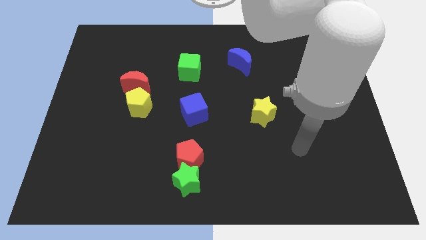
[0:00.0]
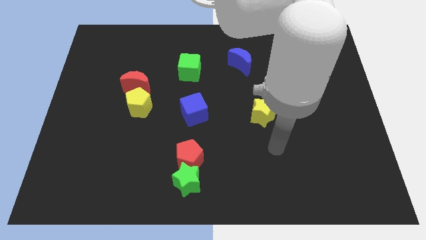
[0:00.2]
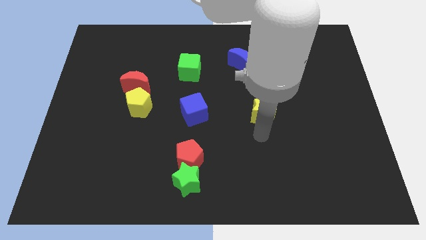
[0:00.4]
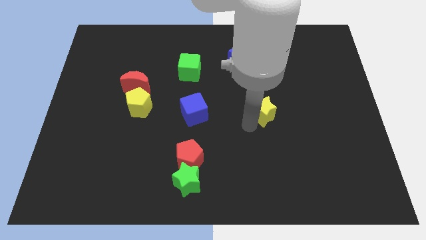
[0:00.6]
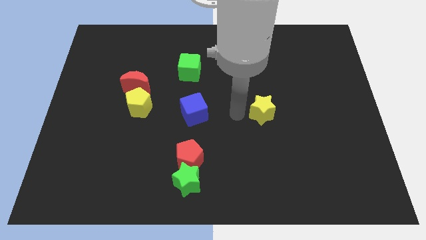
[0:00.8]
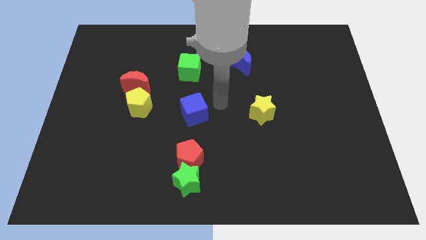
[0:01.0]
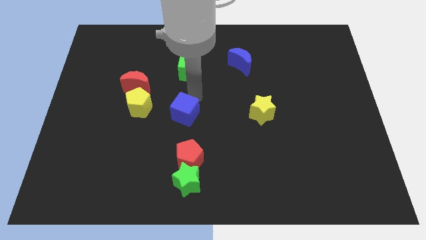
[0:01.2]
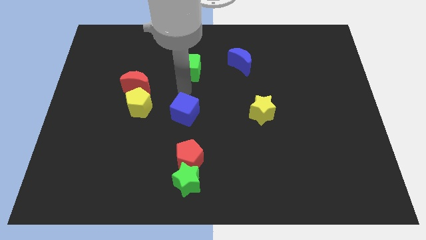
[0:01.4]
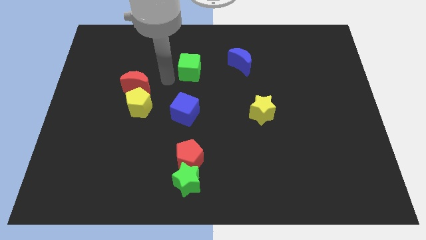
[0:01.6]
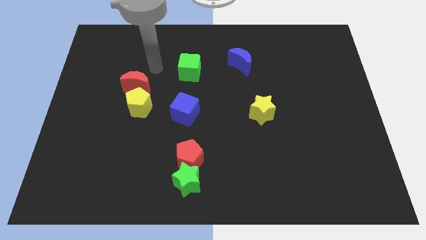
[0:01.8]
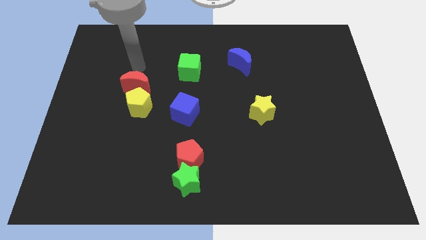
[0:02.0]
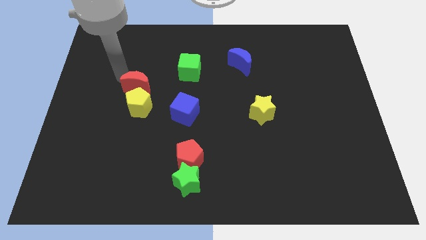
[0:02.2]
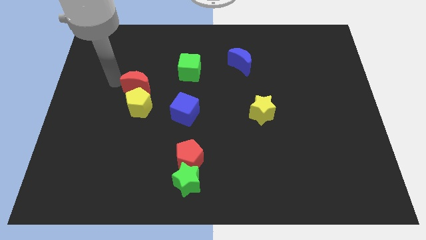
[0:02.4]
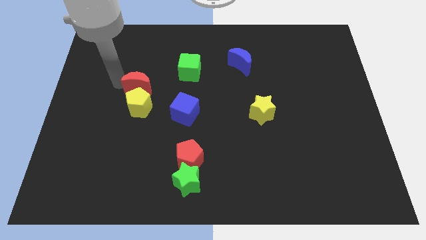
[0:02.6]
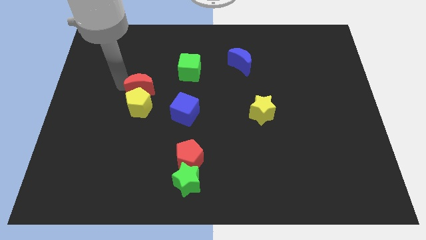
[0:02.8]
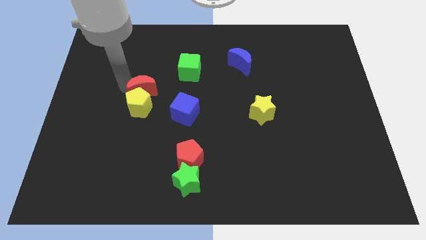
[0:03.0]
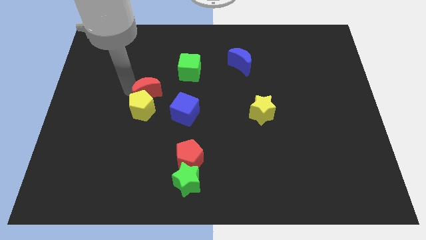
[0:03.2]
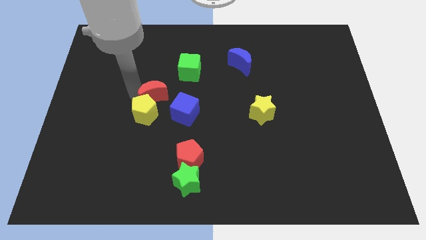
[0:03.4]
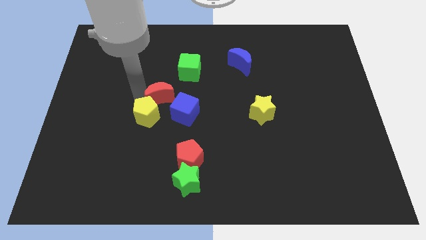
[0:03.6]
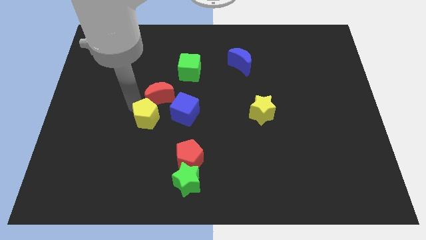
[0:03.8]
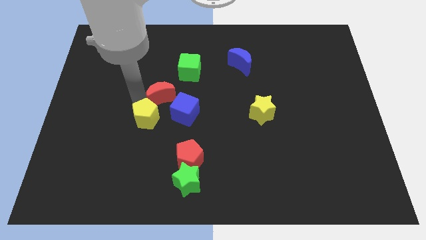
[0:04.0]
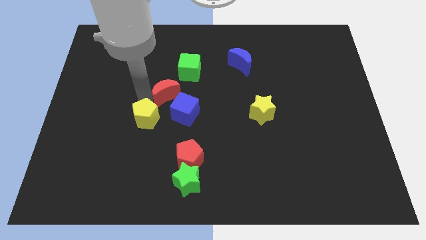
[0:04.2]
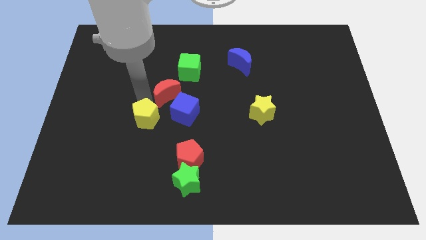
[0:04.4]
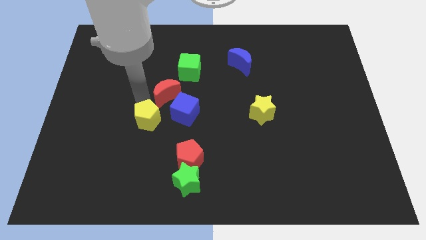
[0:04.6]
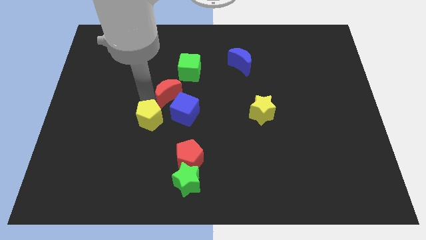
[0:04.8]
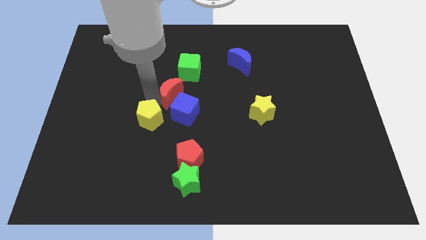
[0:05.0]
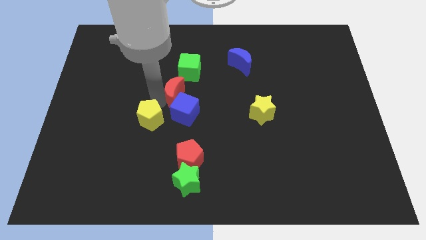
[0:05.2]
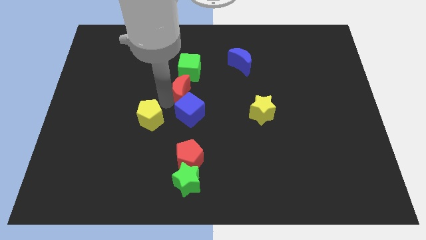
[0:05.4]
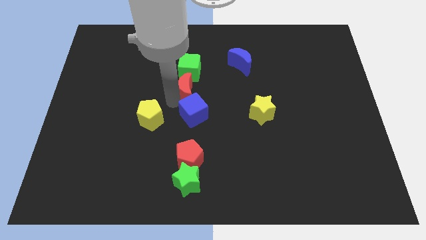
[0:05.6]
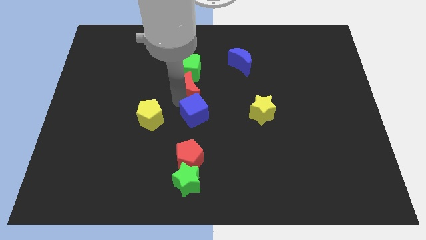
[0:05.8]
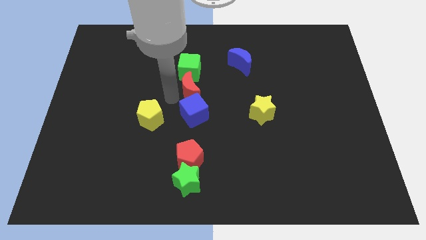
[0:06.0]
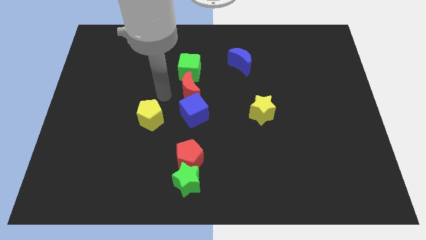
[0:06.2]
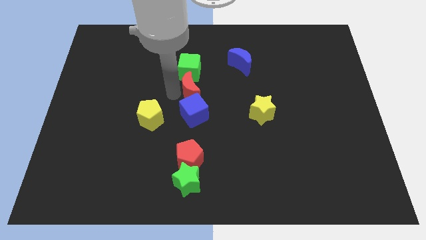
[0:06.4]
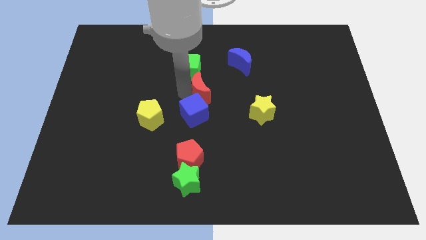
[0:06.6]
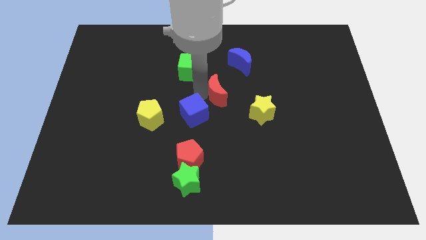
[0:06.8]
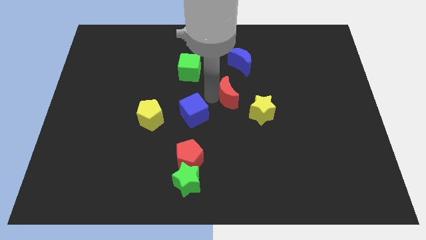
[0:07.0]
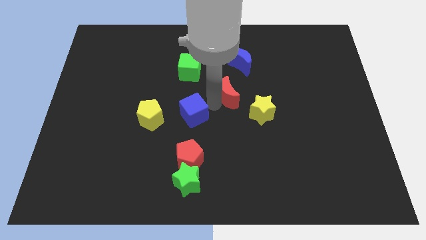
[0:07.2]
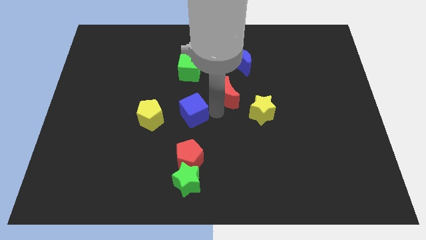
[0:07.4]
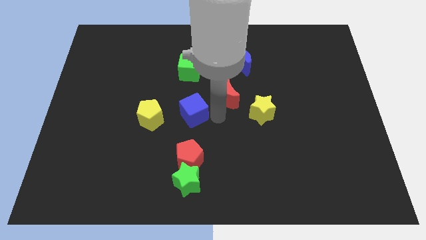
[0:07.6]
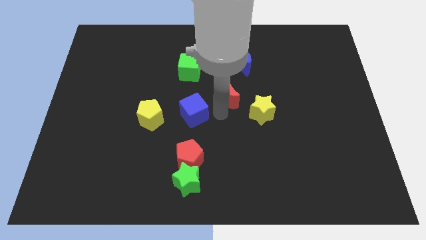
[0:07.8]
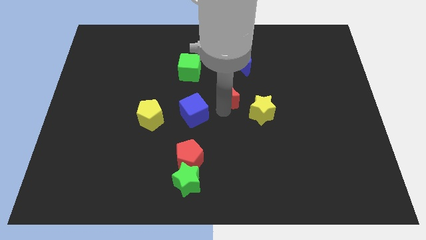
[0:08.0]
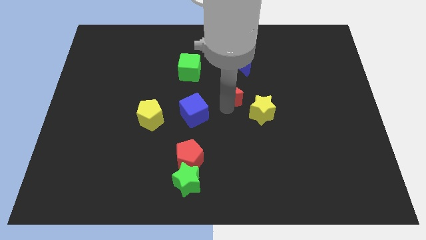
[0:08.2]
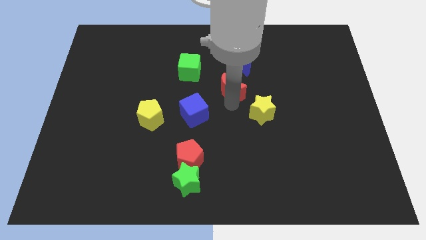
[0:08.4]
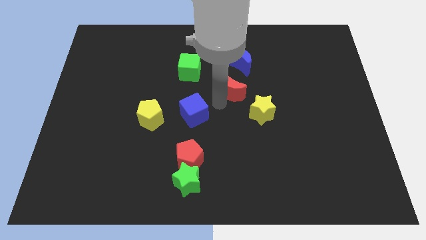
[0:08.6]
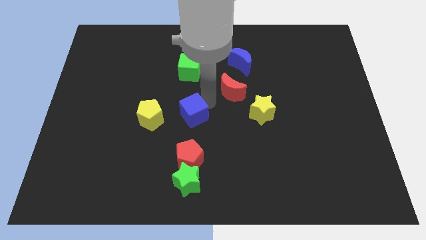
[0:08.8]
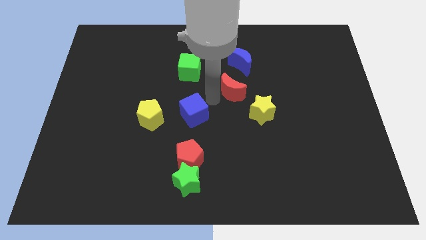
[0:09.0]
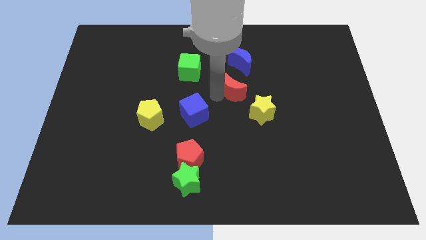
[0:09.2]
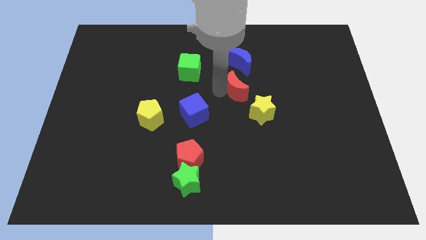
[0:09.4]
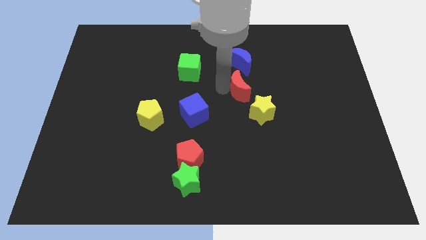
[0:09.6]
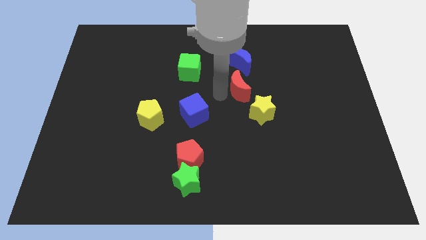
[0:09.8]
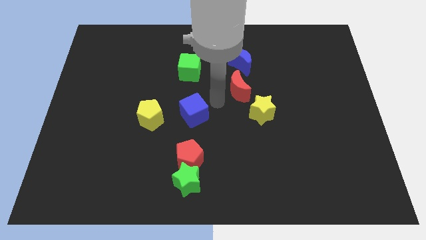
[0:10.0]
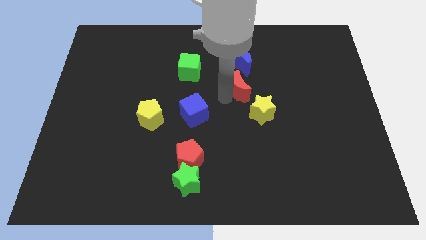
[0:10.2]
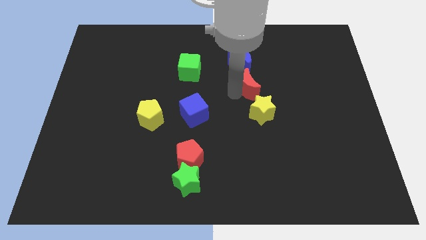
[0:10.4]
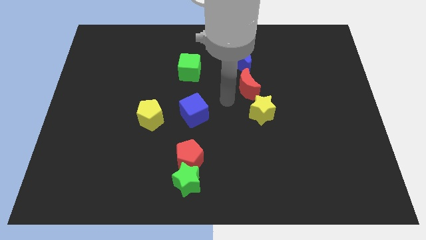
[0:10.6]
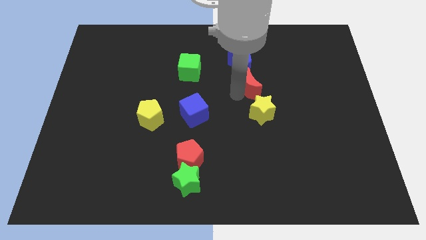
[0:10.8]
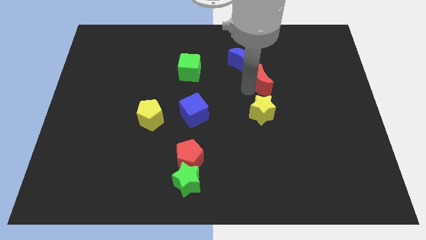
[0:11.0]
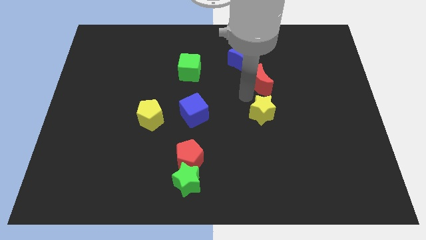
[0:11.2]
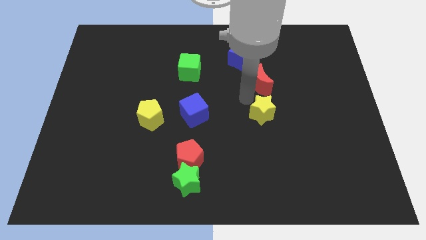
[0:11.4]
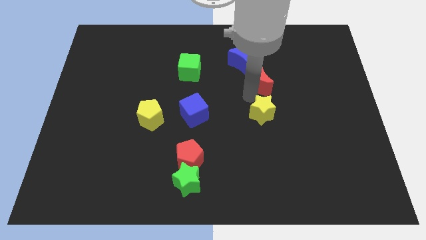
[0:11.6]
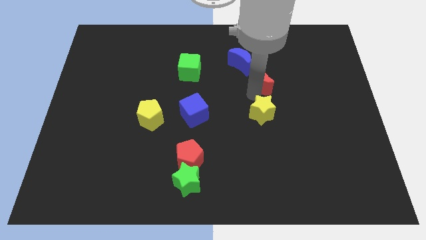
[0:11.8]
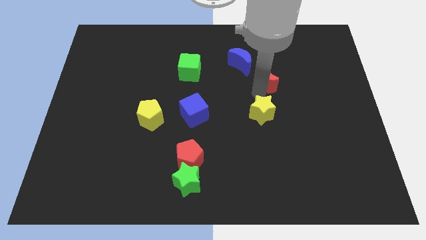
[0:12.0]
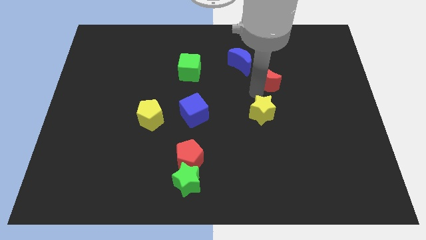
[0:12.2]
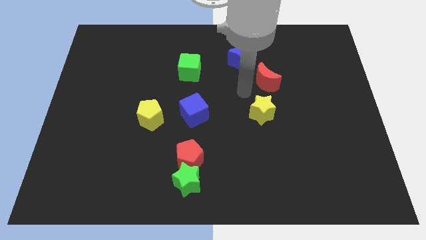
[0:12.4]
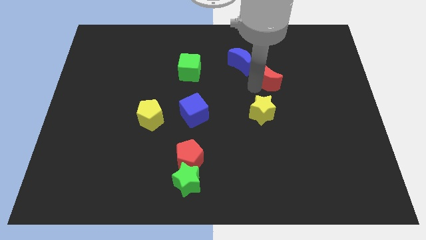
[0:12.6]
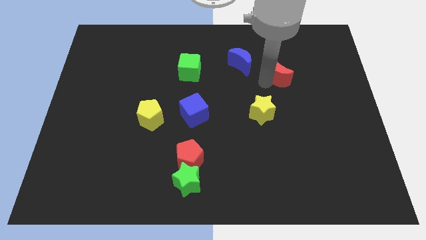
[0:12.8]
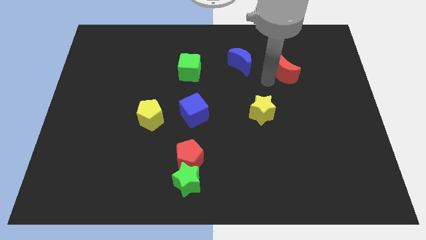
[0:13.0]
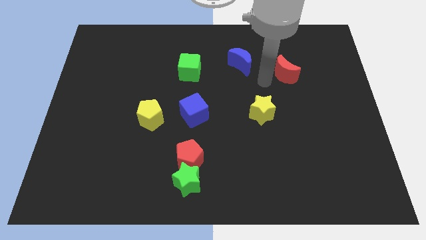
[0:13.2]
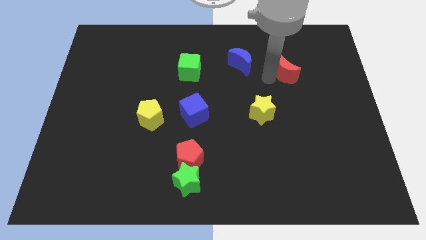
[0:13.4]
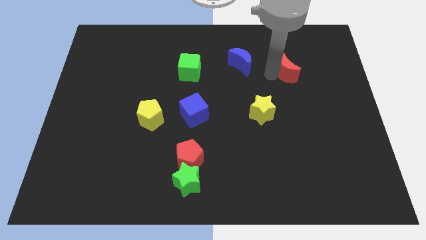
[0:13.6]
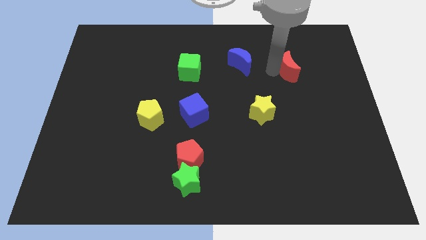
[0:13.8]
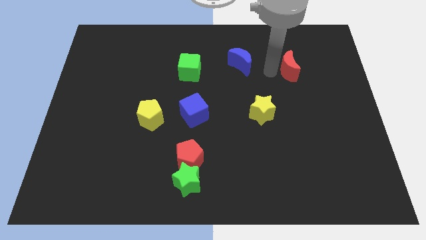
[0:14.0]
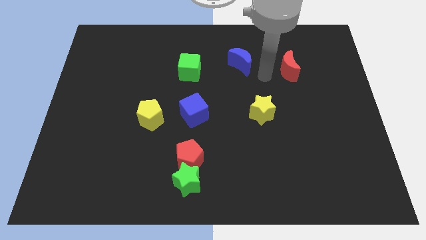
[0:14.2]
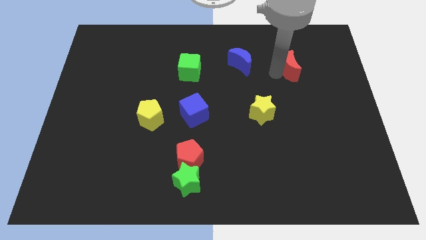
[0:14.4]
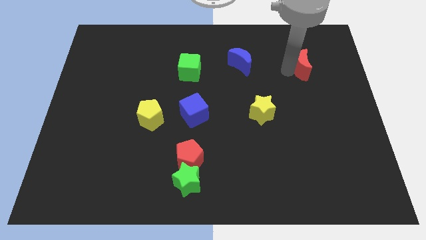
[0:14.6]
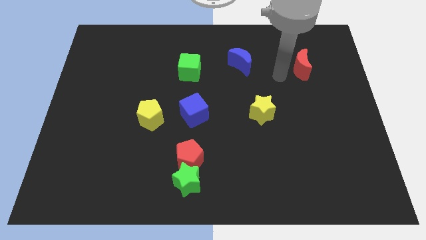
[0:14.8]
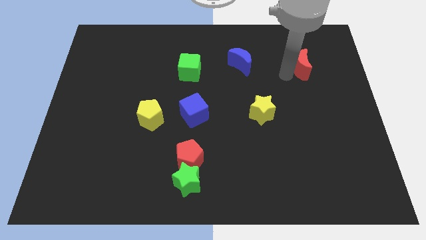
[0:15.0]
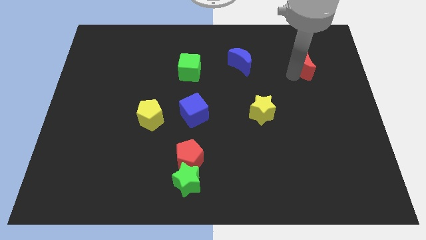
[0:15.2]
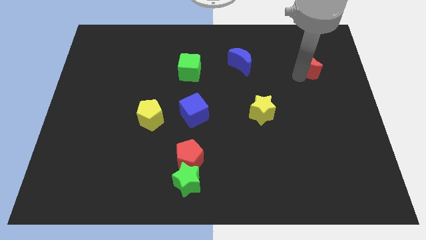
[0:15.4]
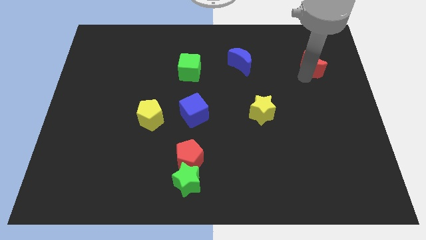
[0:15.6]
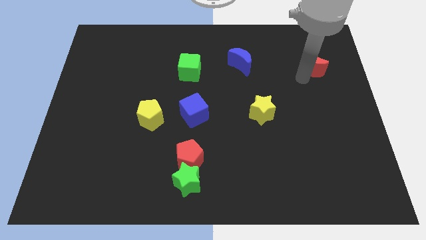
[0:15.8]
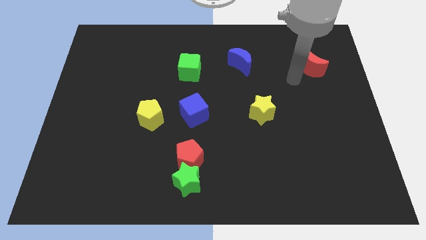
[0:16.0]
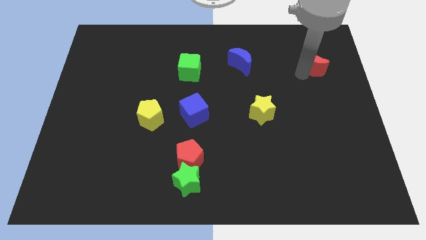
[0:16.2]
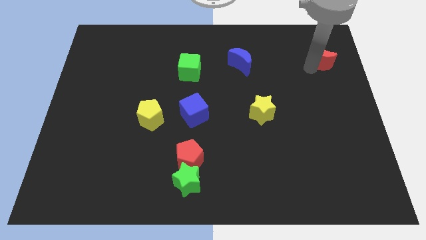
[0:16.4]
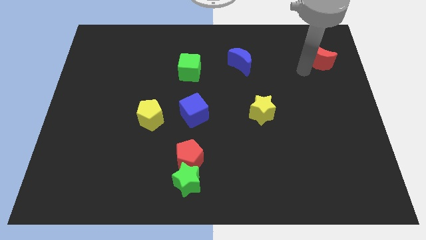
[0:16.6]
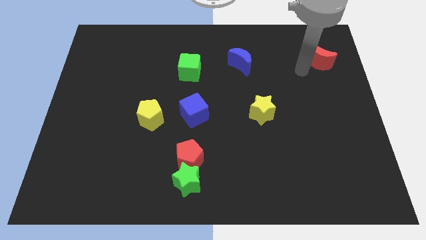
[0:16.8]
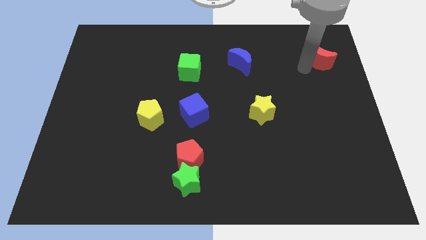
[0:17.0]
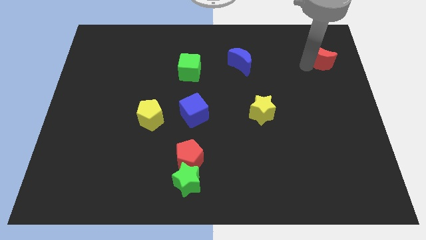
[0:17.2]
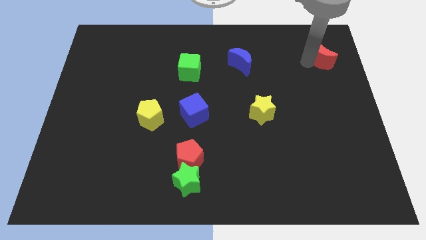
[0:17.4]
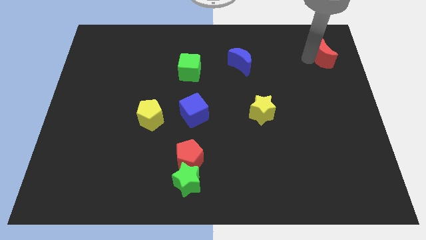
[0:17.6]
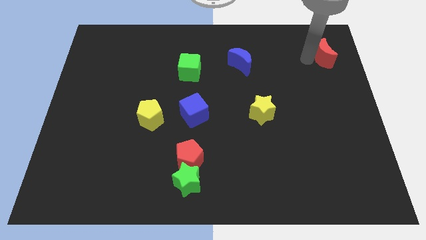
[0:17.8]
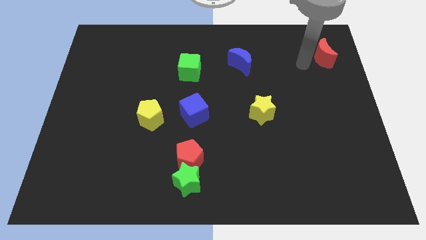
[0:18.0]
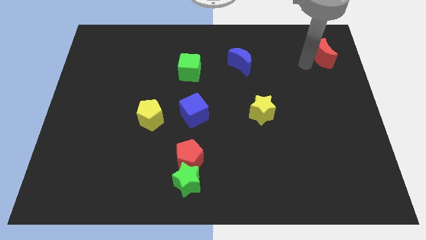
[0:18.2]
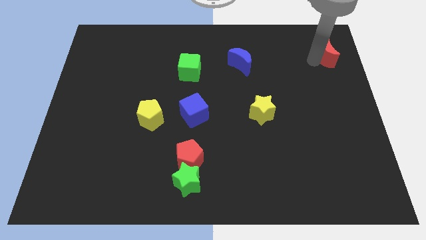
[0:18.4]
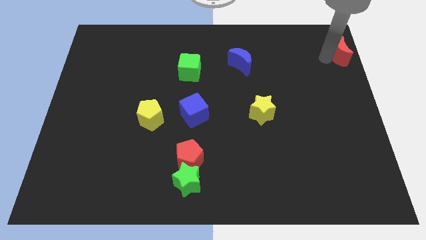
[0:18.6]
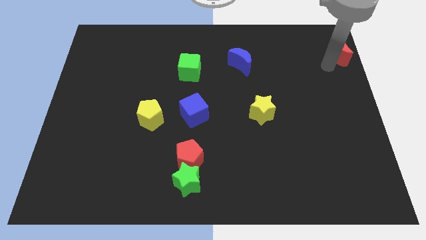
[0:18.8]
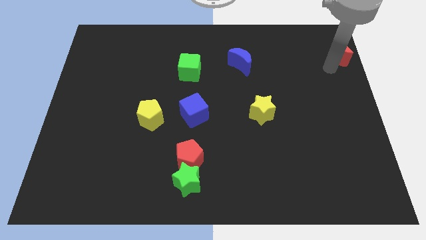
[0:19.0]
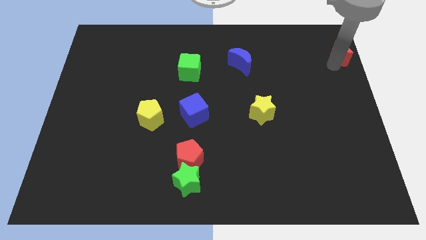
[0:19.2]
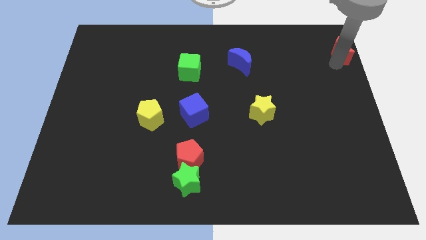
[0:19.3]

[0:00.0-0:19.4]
slide the red moon to the top right
